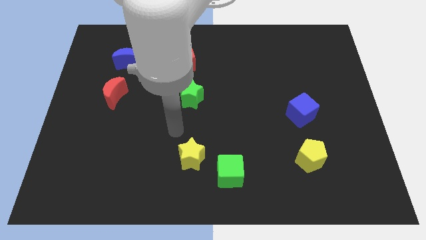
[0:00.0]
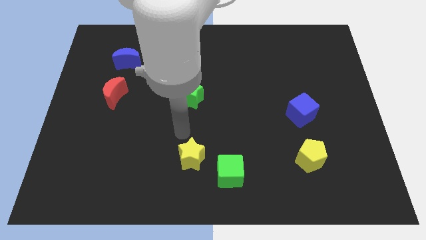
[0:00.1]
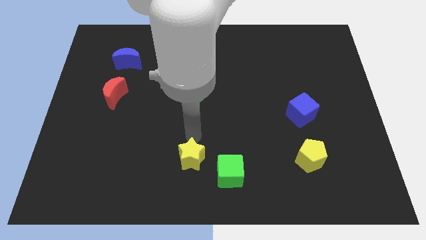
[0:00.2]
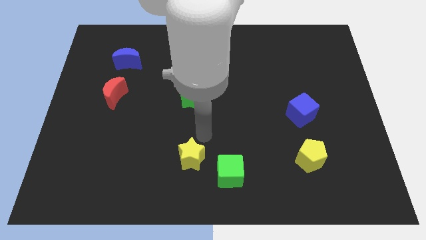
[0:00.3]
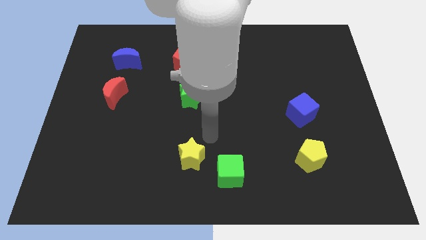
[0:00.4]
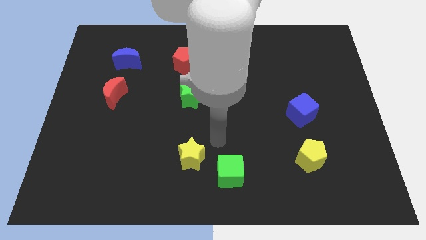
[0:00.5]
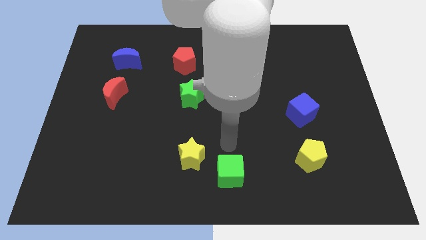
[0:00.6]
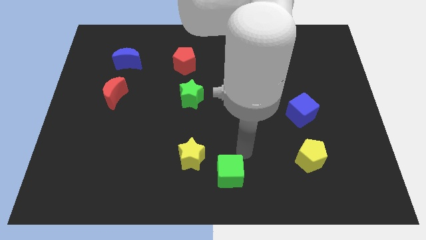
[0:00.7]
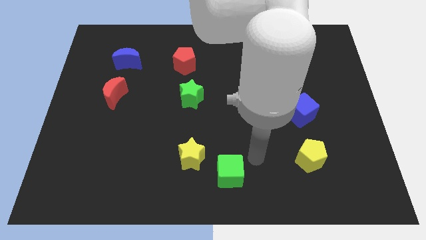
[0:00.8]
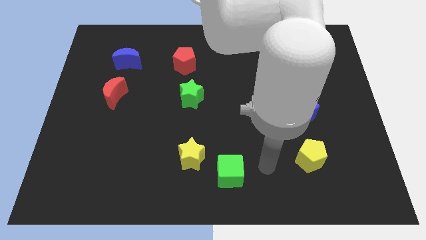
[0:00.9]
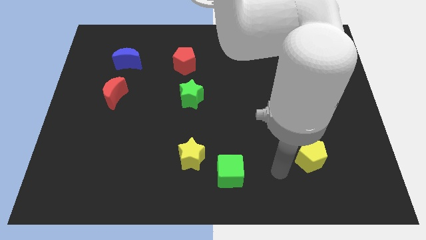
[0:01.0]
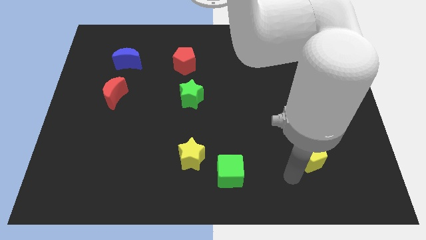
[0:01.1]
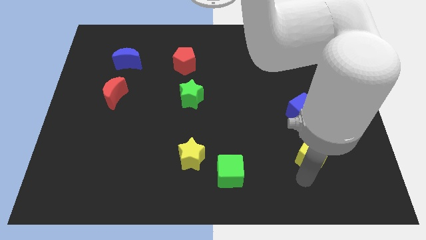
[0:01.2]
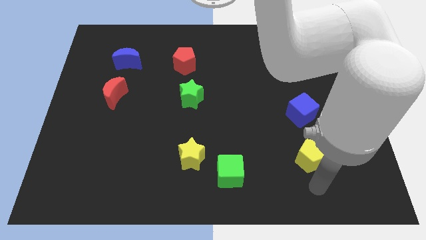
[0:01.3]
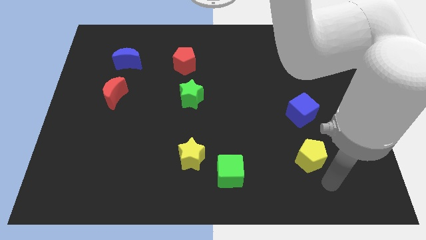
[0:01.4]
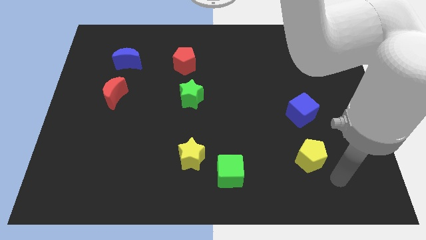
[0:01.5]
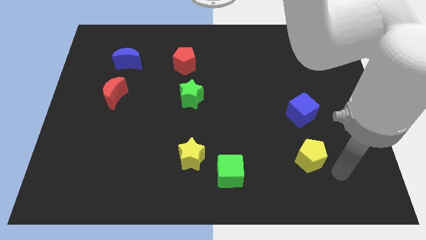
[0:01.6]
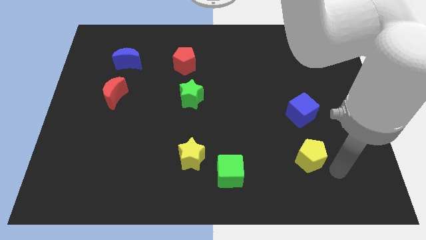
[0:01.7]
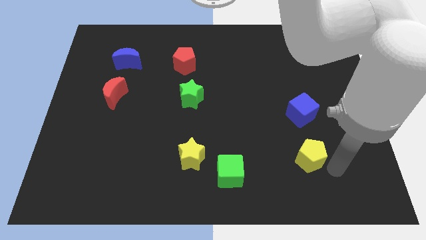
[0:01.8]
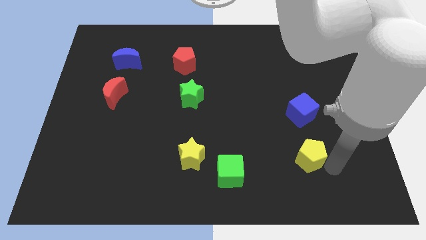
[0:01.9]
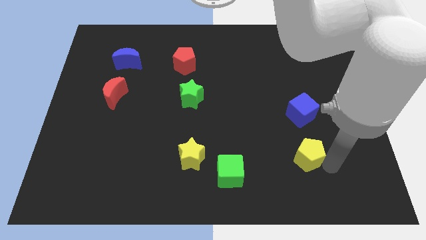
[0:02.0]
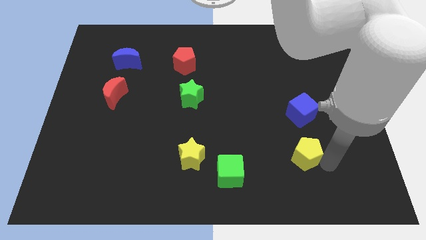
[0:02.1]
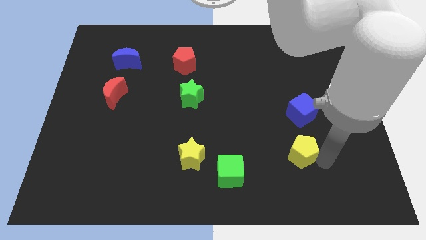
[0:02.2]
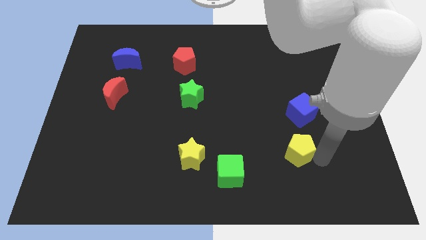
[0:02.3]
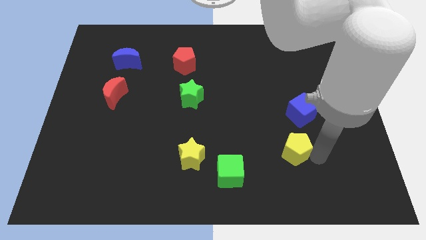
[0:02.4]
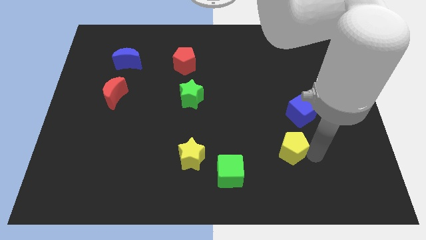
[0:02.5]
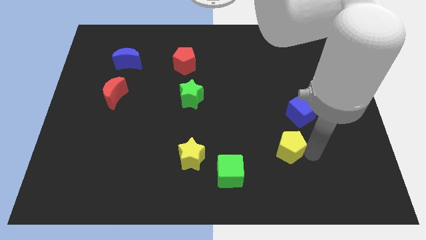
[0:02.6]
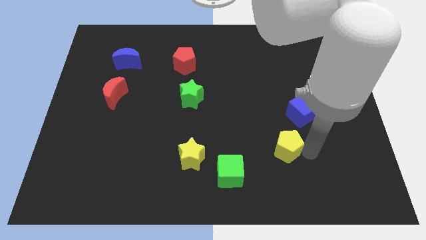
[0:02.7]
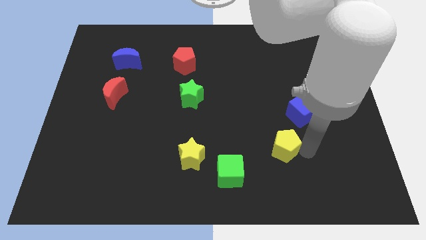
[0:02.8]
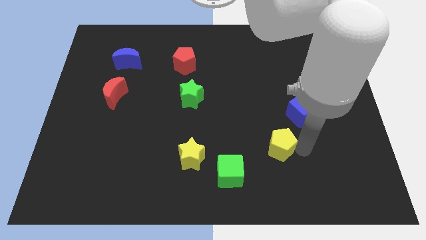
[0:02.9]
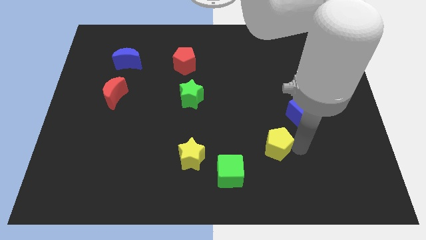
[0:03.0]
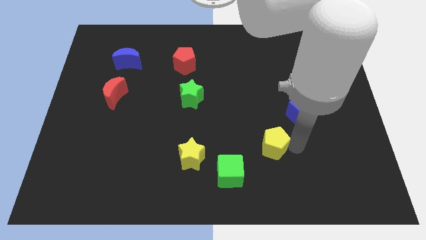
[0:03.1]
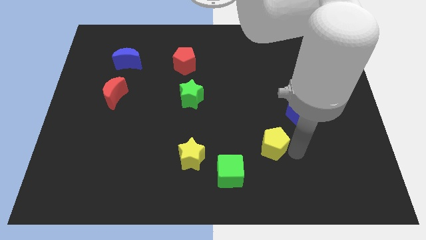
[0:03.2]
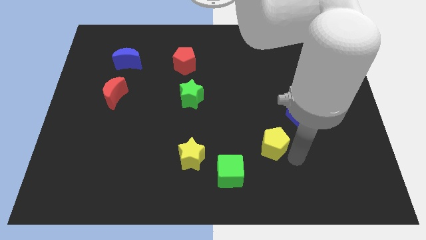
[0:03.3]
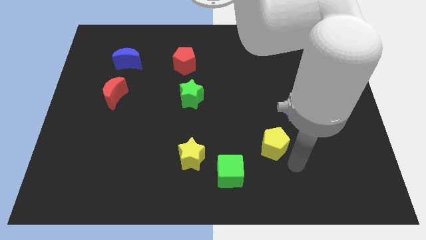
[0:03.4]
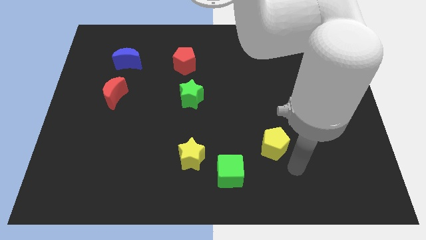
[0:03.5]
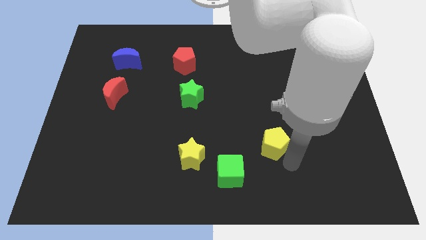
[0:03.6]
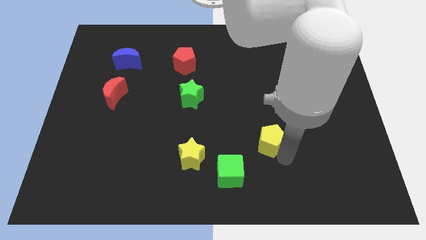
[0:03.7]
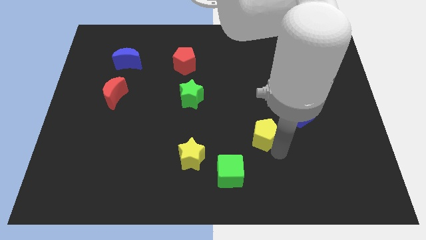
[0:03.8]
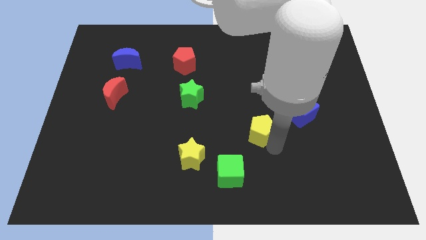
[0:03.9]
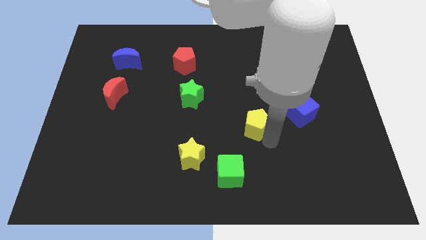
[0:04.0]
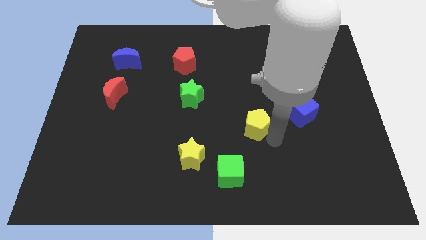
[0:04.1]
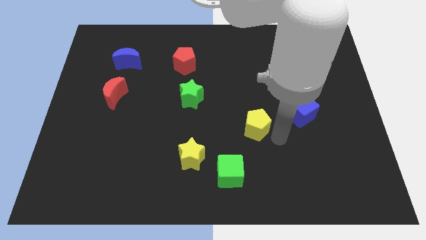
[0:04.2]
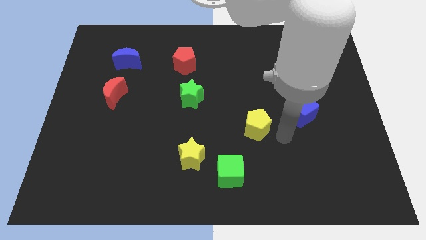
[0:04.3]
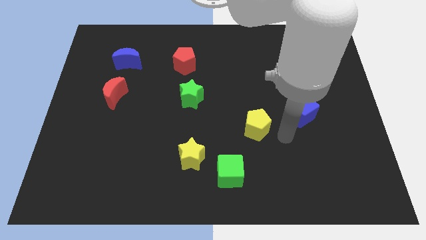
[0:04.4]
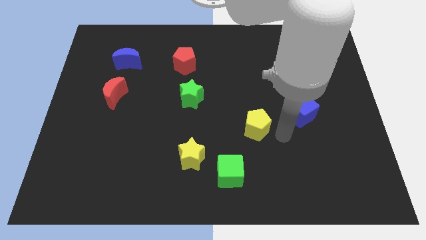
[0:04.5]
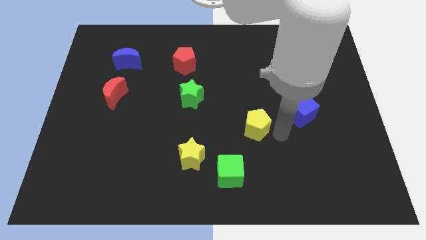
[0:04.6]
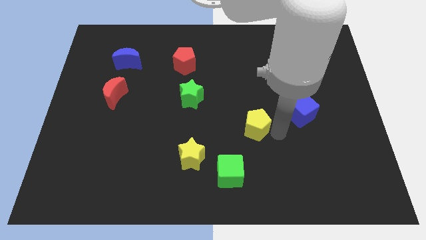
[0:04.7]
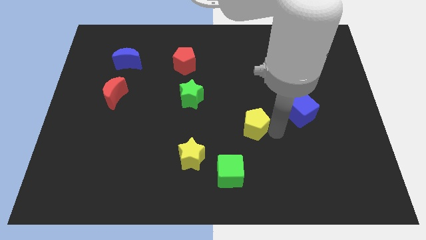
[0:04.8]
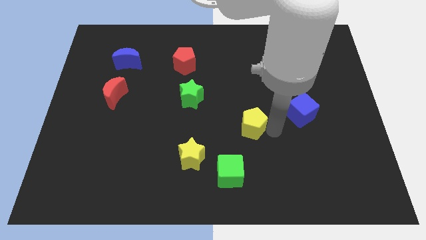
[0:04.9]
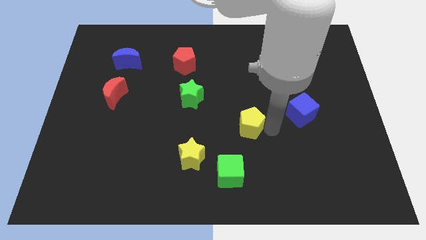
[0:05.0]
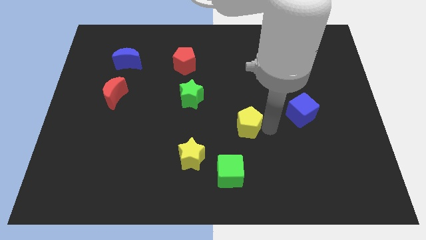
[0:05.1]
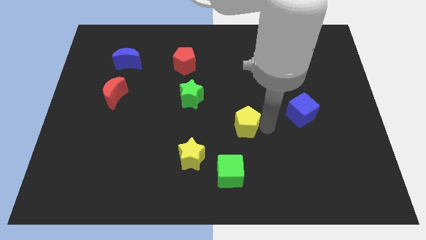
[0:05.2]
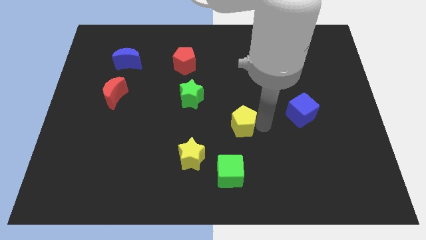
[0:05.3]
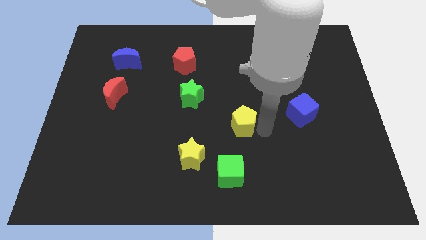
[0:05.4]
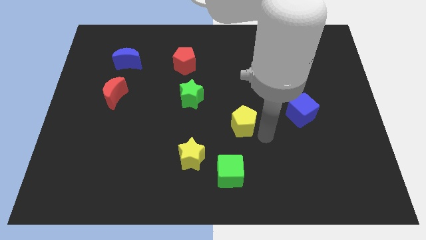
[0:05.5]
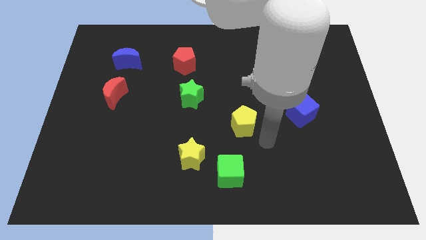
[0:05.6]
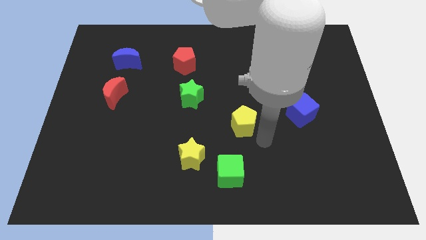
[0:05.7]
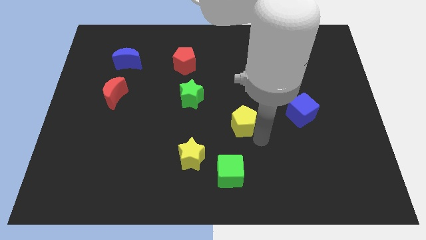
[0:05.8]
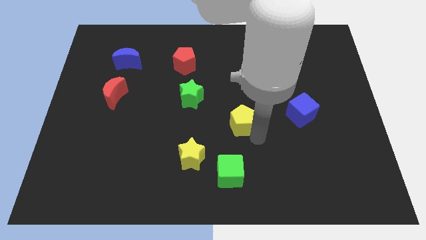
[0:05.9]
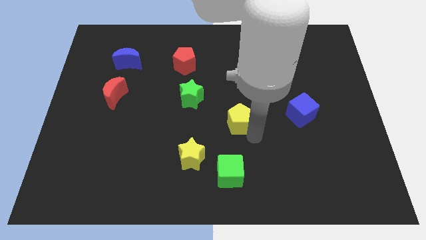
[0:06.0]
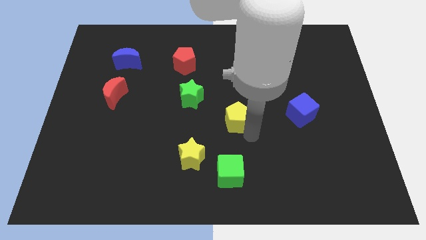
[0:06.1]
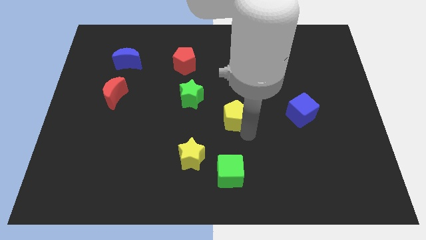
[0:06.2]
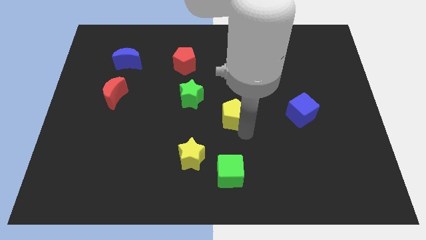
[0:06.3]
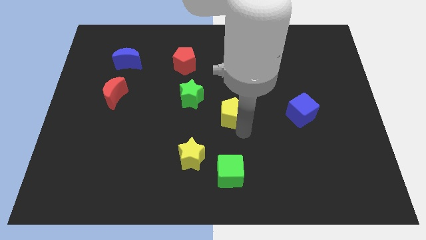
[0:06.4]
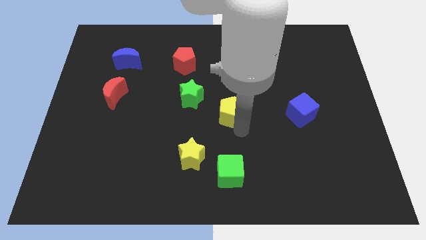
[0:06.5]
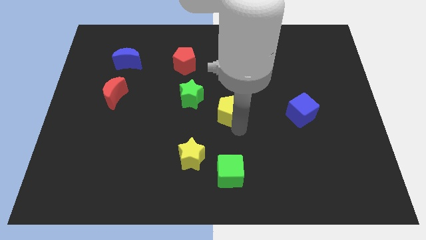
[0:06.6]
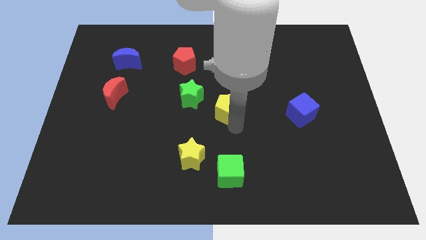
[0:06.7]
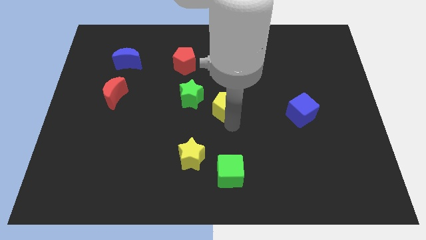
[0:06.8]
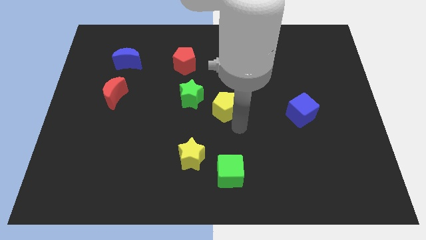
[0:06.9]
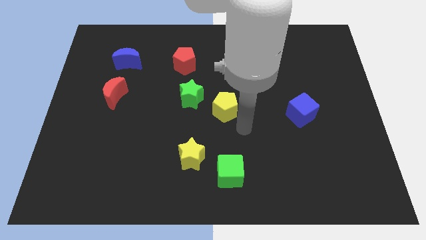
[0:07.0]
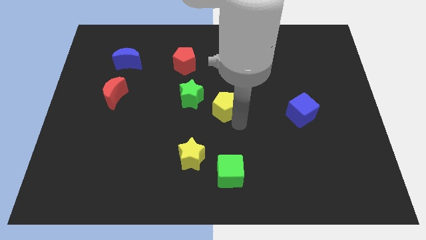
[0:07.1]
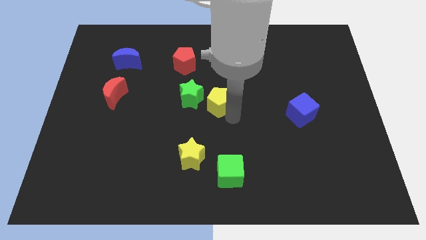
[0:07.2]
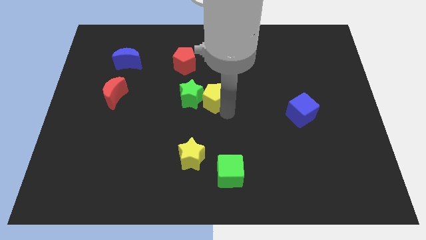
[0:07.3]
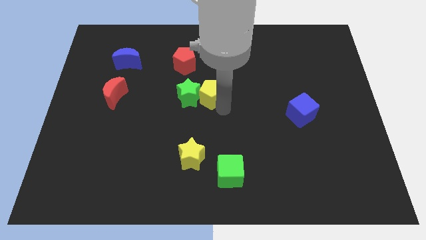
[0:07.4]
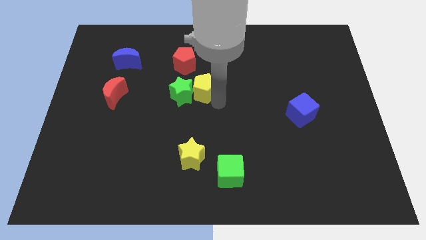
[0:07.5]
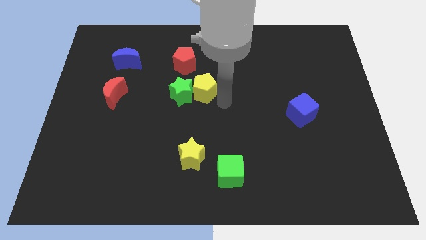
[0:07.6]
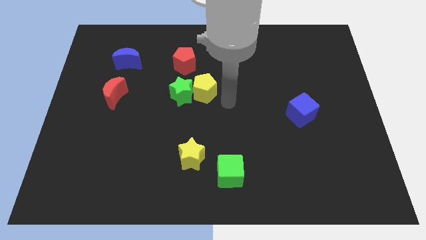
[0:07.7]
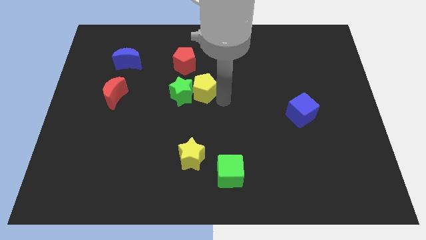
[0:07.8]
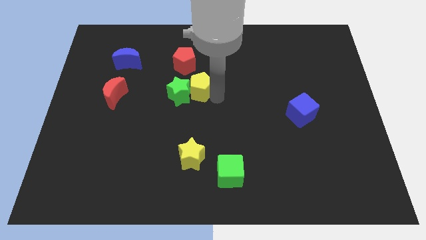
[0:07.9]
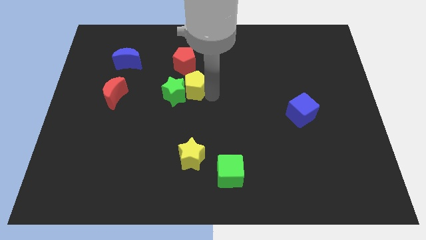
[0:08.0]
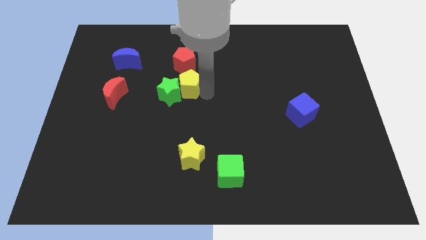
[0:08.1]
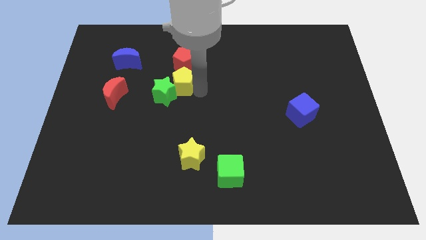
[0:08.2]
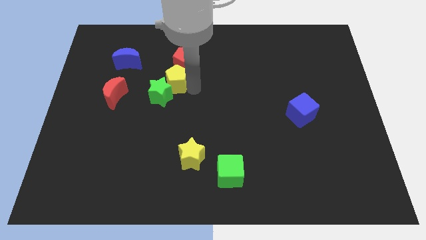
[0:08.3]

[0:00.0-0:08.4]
move the yellow pentagon to the bottom left of the red pentagon
